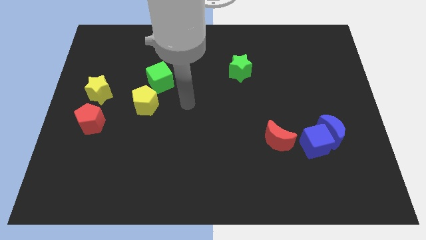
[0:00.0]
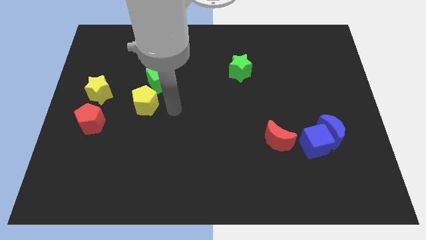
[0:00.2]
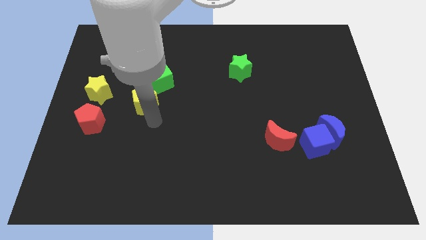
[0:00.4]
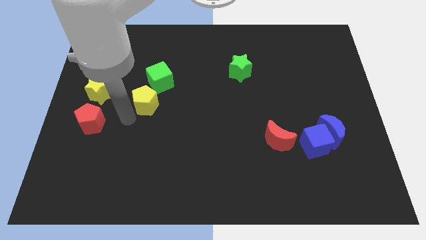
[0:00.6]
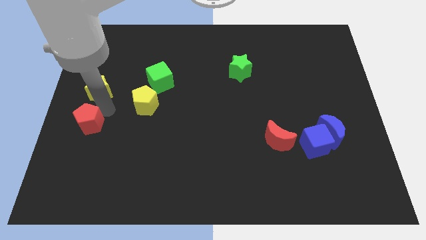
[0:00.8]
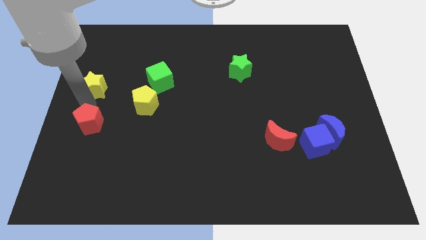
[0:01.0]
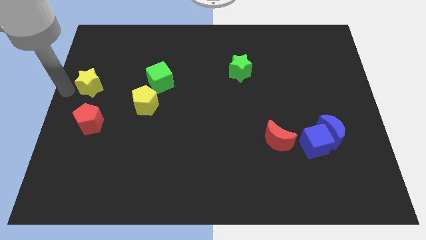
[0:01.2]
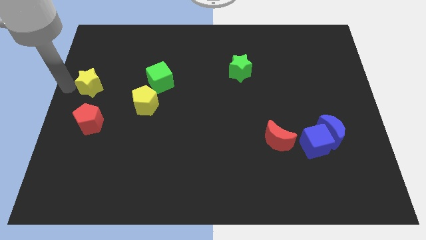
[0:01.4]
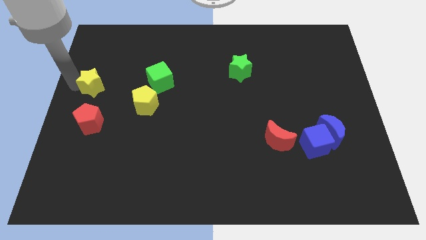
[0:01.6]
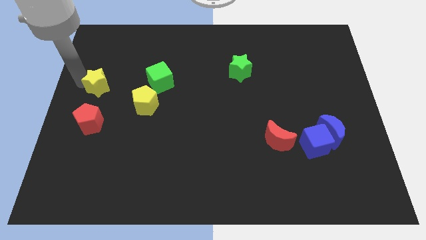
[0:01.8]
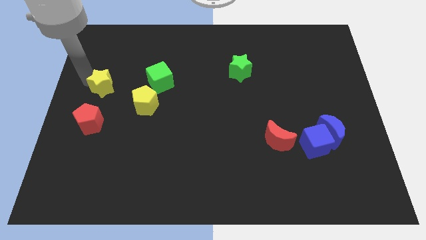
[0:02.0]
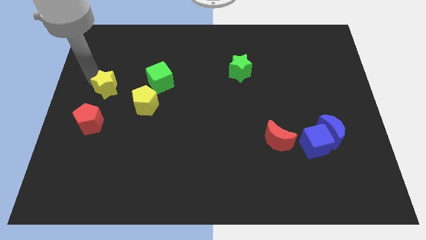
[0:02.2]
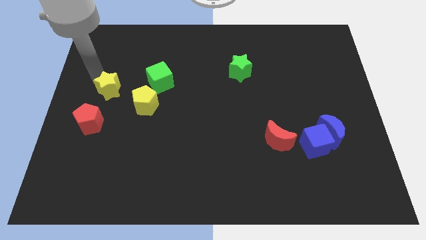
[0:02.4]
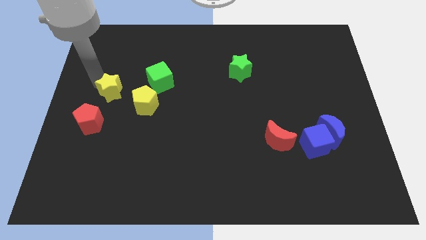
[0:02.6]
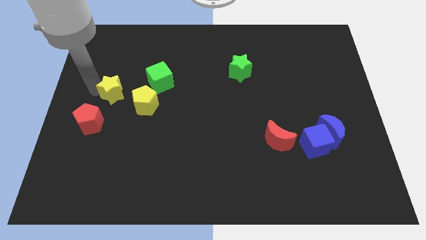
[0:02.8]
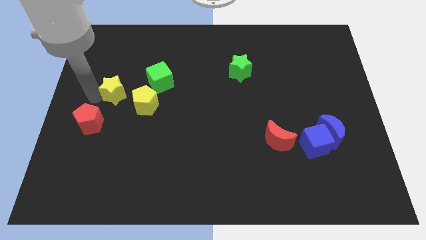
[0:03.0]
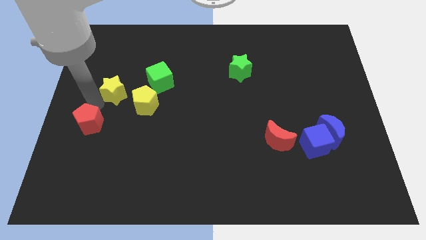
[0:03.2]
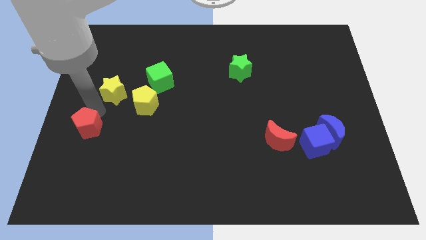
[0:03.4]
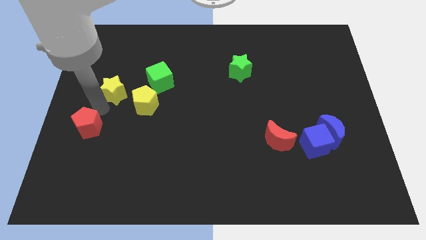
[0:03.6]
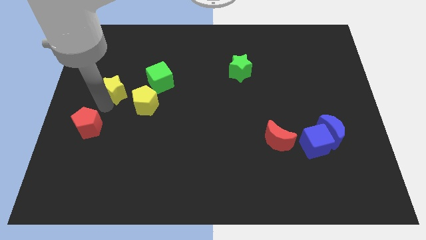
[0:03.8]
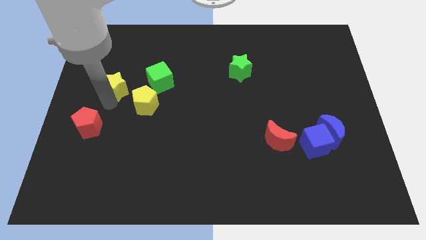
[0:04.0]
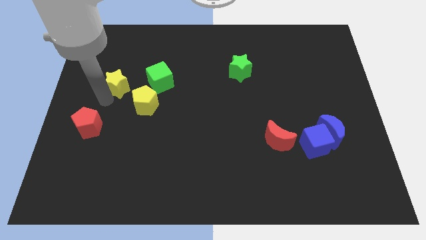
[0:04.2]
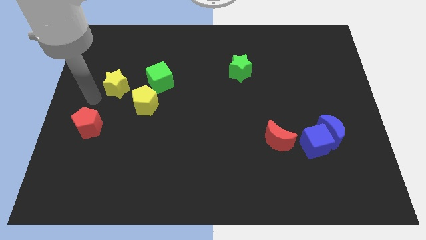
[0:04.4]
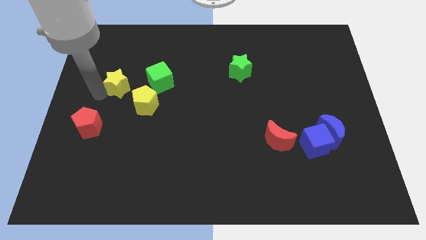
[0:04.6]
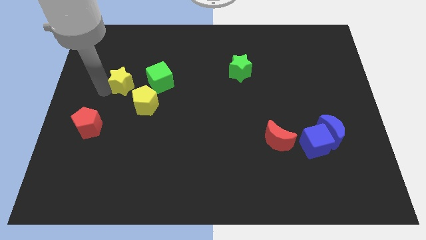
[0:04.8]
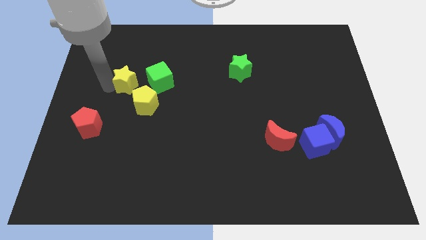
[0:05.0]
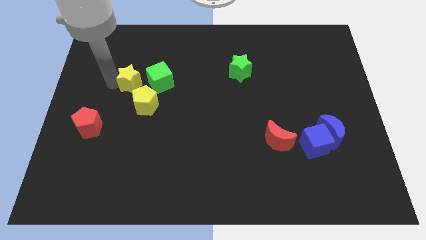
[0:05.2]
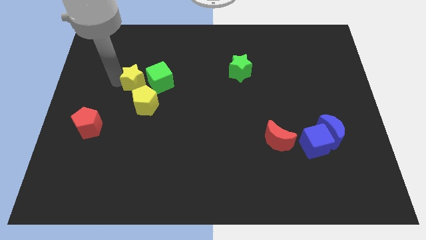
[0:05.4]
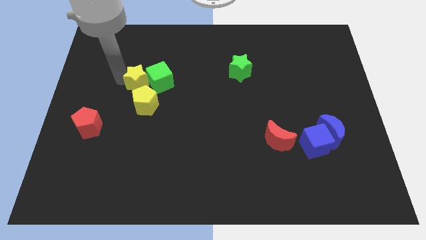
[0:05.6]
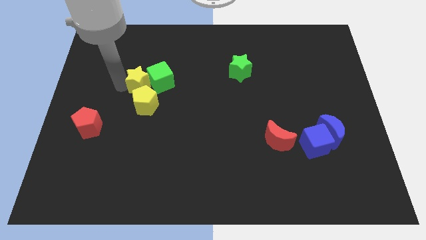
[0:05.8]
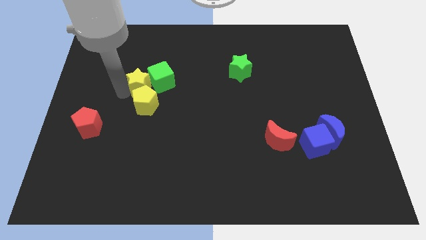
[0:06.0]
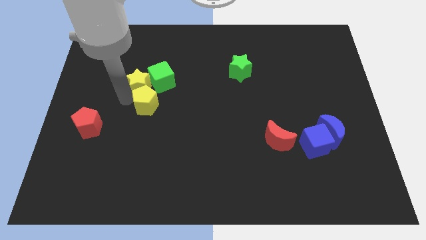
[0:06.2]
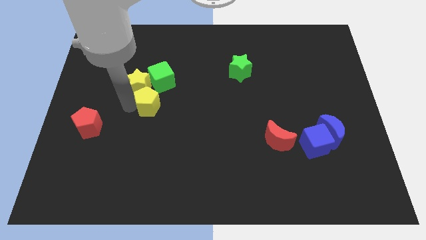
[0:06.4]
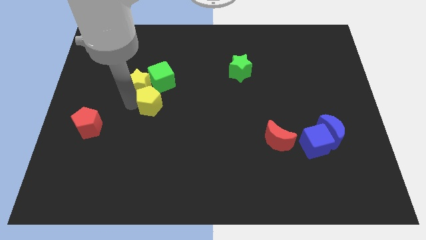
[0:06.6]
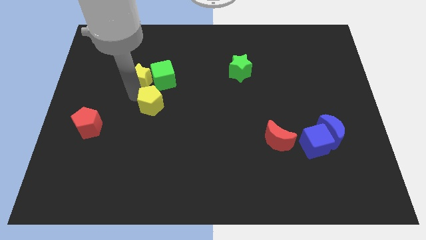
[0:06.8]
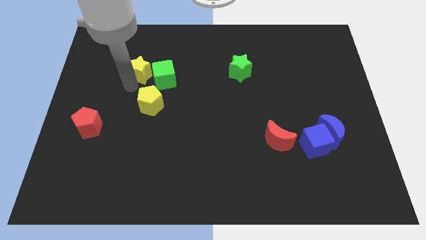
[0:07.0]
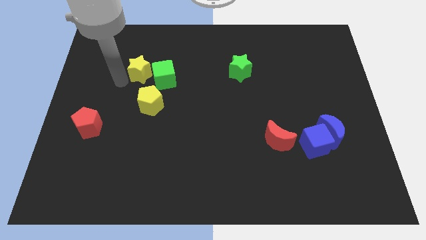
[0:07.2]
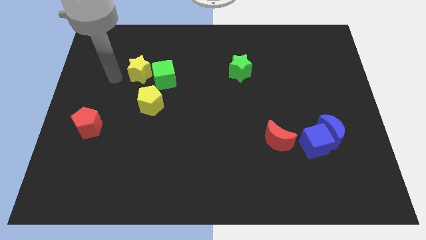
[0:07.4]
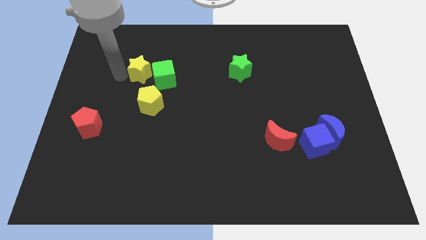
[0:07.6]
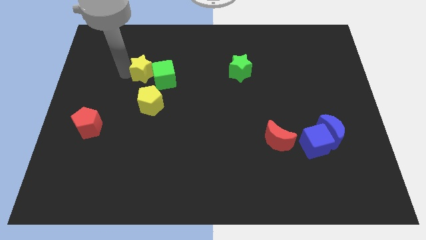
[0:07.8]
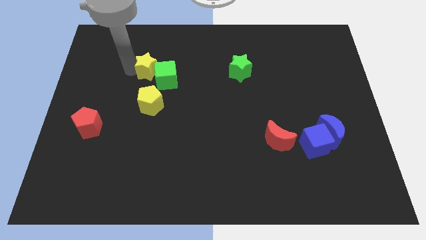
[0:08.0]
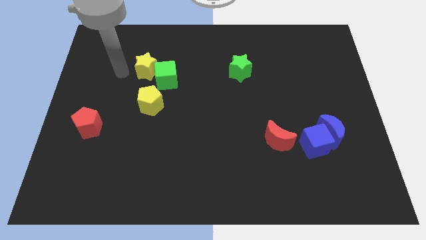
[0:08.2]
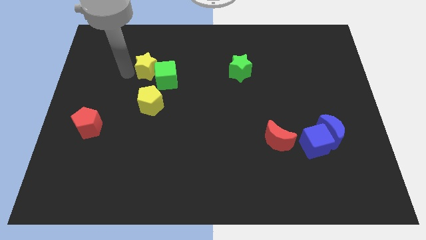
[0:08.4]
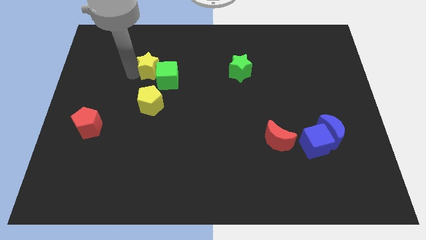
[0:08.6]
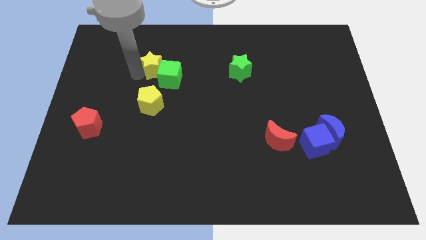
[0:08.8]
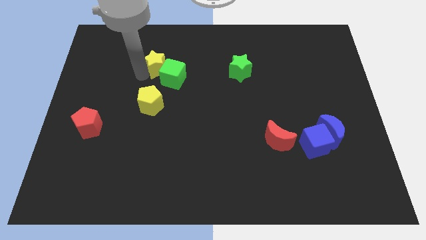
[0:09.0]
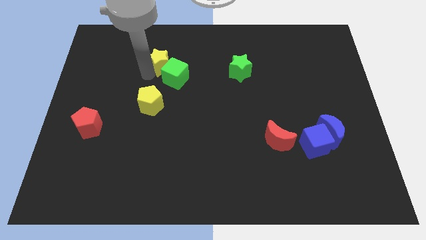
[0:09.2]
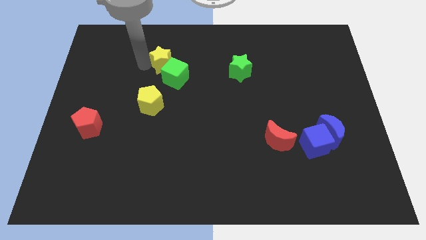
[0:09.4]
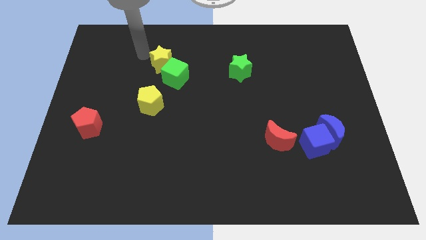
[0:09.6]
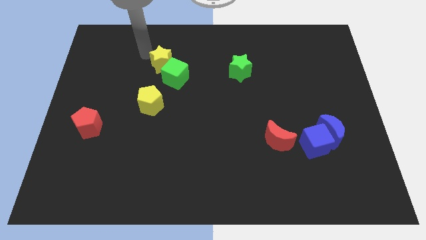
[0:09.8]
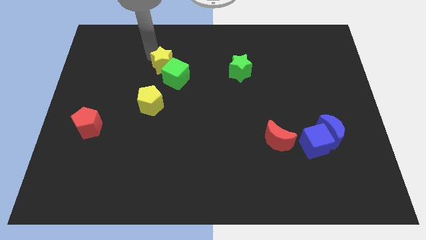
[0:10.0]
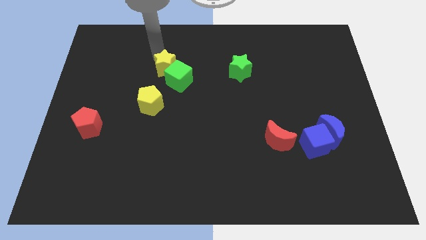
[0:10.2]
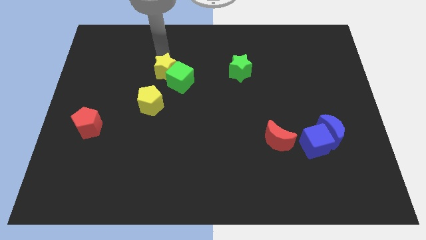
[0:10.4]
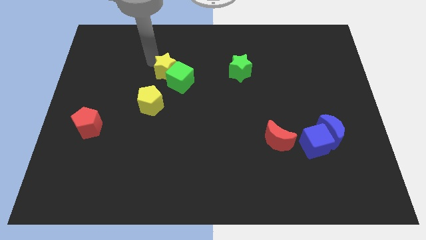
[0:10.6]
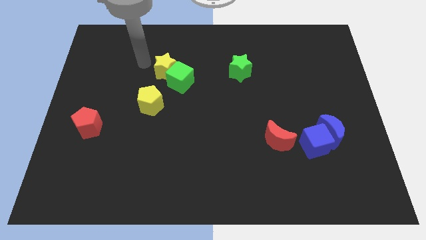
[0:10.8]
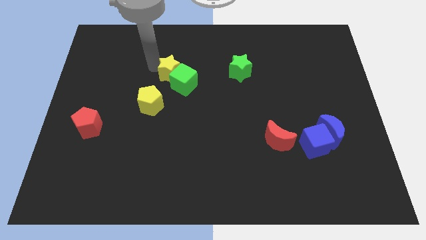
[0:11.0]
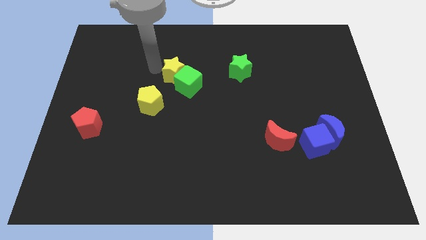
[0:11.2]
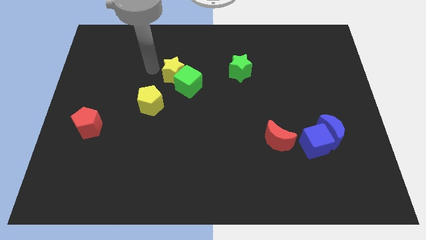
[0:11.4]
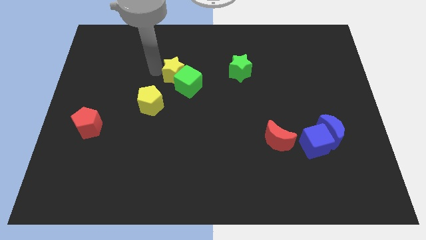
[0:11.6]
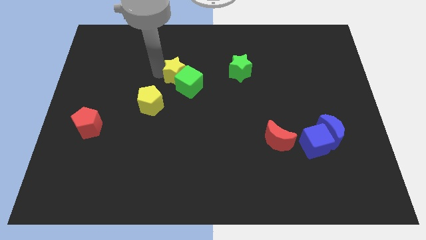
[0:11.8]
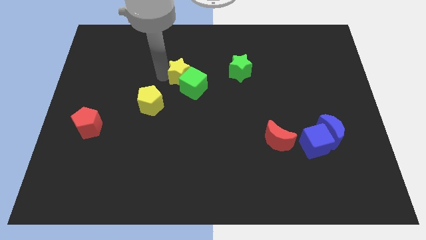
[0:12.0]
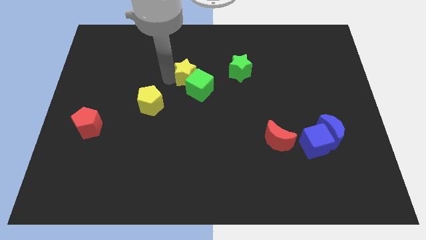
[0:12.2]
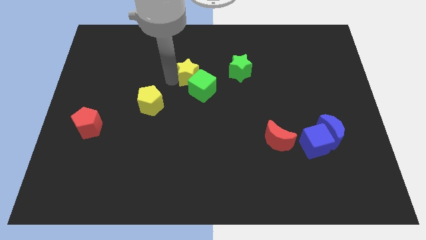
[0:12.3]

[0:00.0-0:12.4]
push the yellow star right

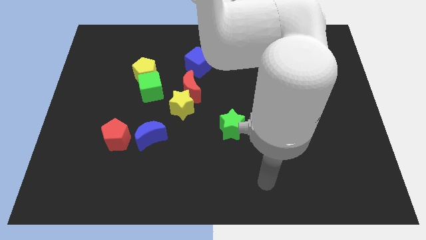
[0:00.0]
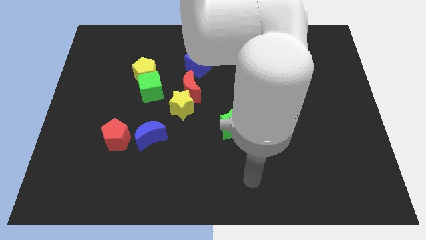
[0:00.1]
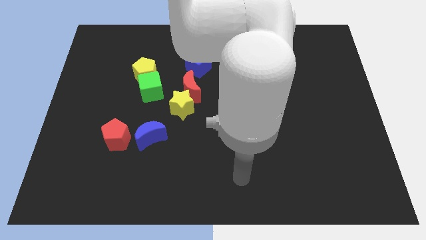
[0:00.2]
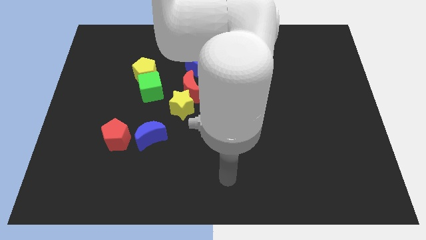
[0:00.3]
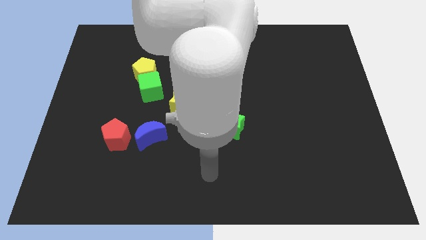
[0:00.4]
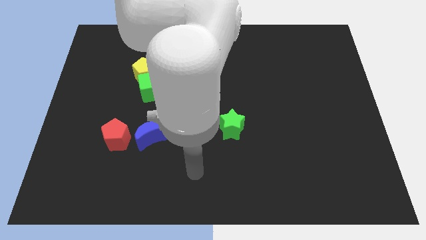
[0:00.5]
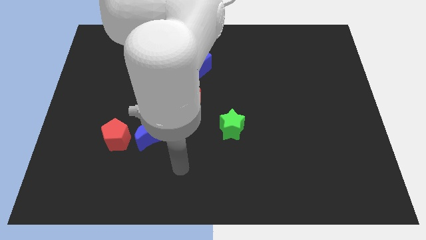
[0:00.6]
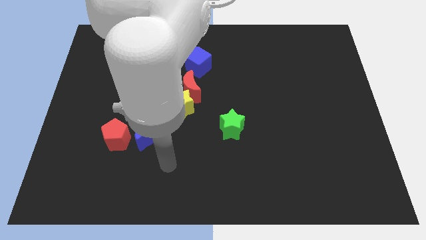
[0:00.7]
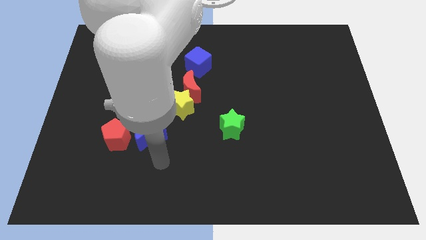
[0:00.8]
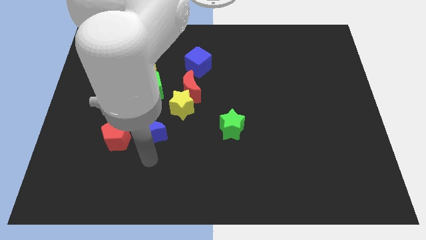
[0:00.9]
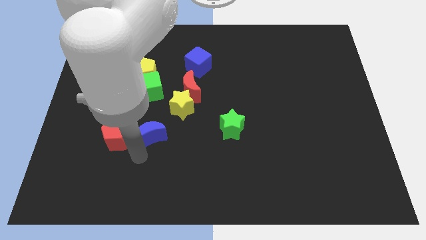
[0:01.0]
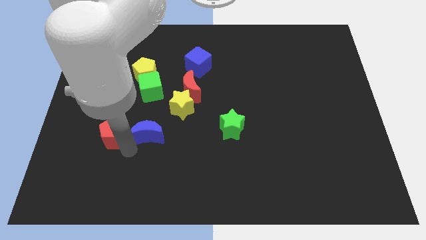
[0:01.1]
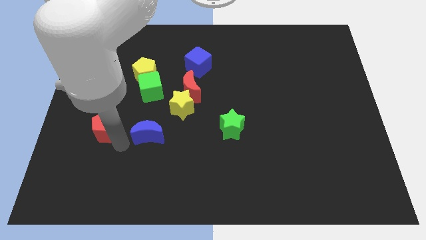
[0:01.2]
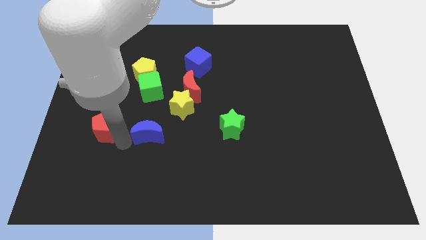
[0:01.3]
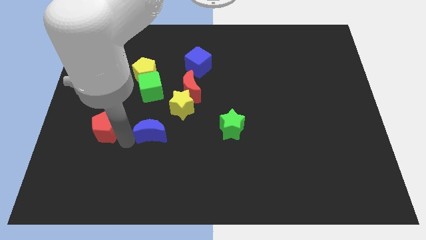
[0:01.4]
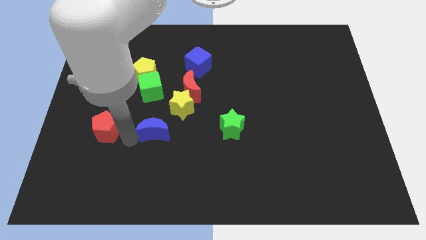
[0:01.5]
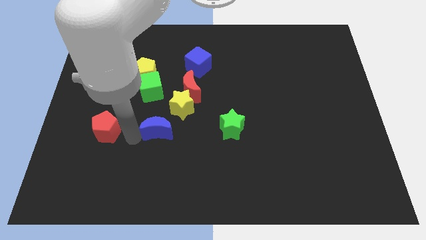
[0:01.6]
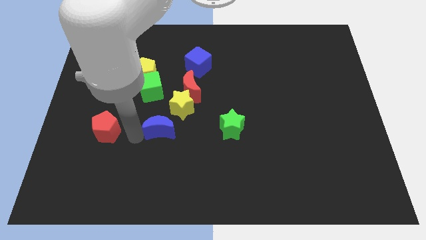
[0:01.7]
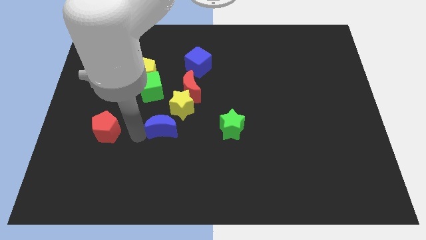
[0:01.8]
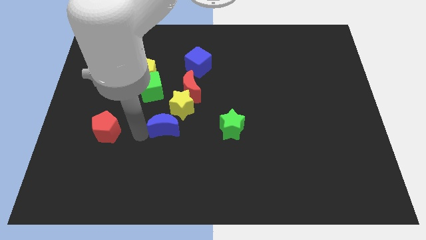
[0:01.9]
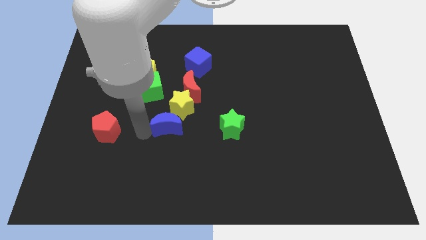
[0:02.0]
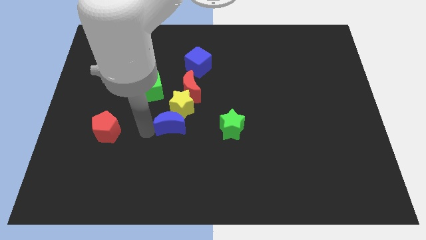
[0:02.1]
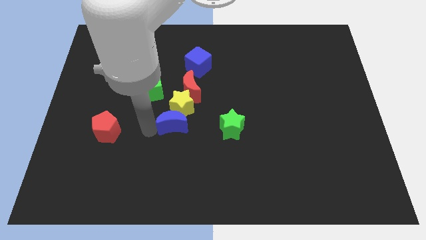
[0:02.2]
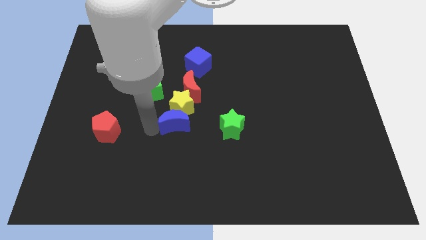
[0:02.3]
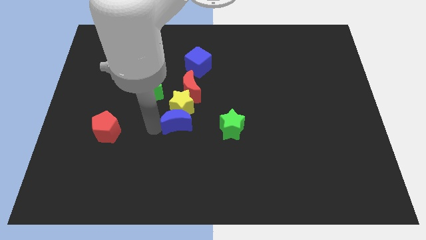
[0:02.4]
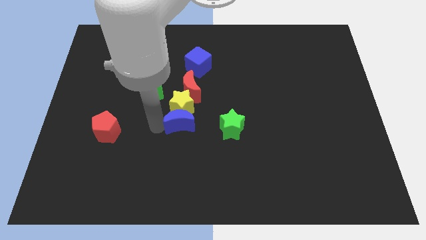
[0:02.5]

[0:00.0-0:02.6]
move the blue moon somewhat diagonally upwards and right
